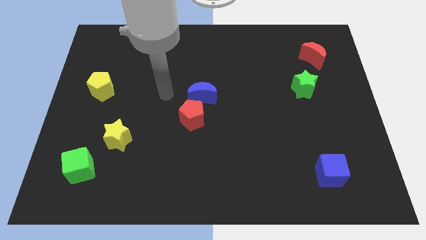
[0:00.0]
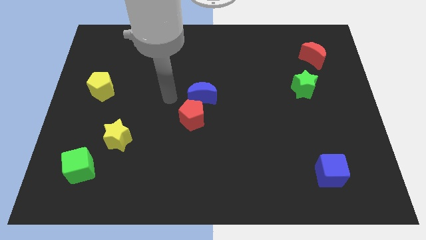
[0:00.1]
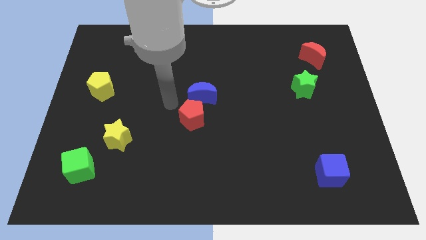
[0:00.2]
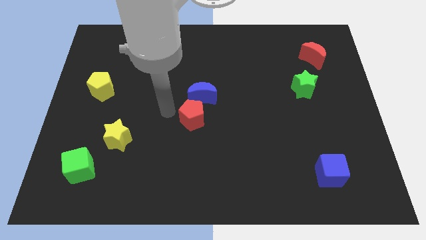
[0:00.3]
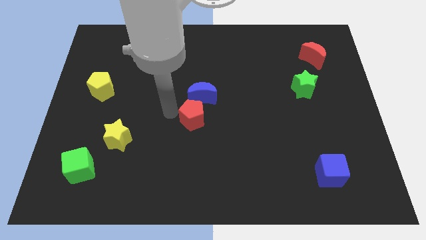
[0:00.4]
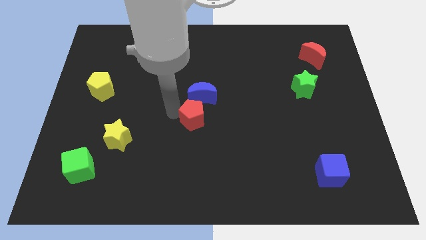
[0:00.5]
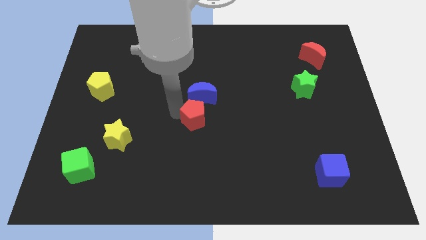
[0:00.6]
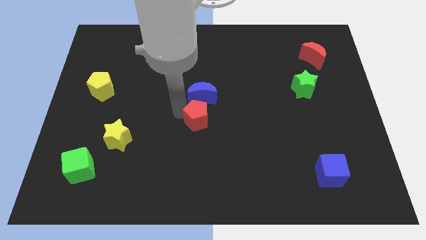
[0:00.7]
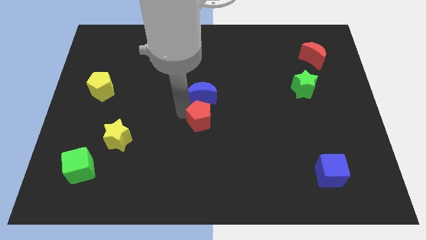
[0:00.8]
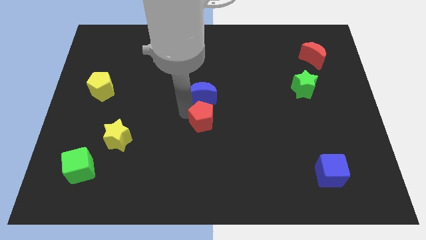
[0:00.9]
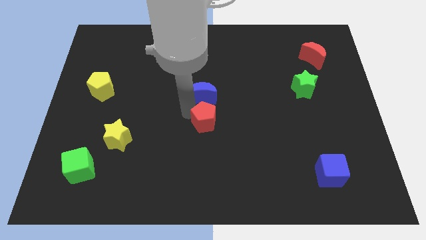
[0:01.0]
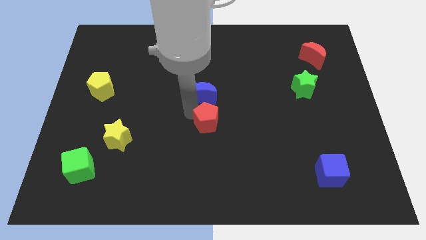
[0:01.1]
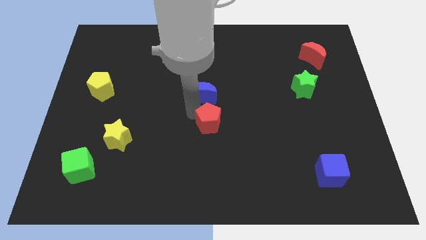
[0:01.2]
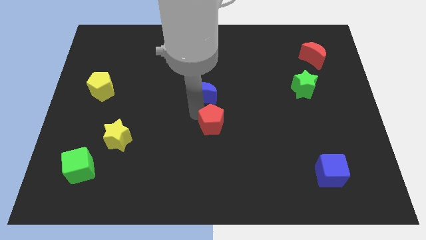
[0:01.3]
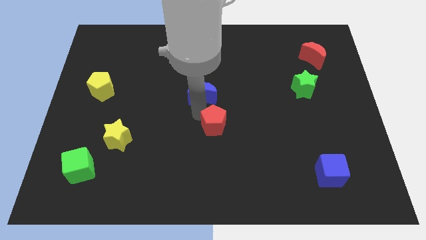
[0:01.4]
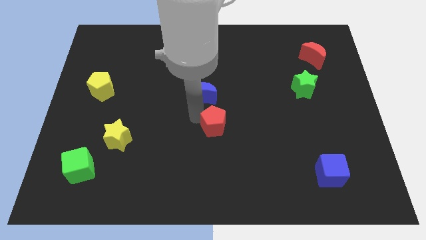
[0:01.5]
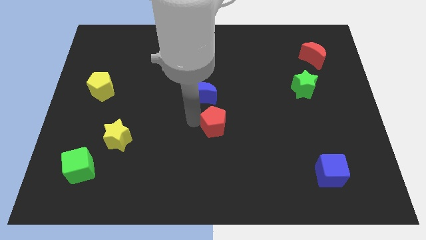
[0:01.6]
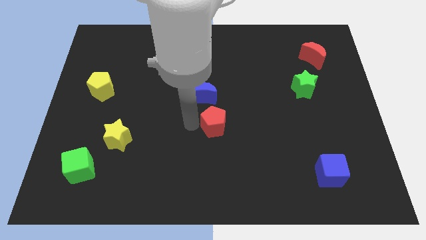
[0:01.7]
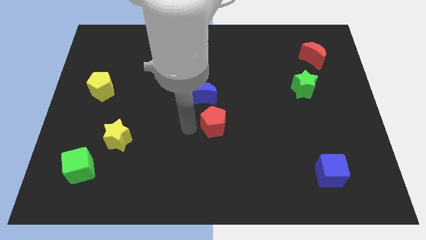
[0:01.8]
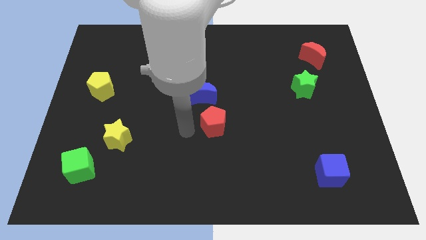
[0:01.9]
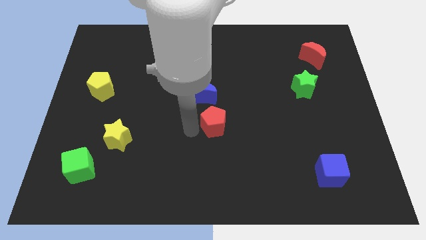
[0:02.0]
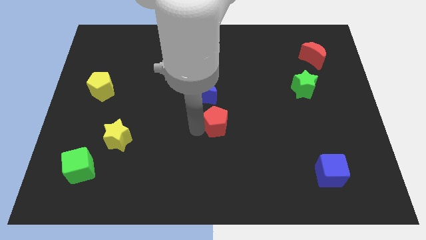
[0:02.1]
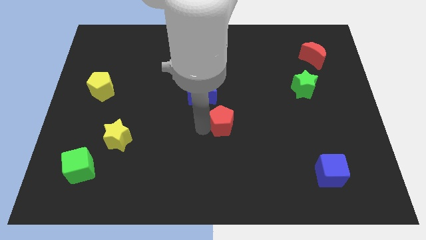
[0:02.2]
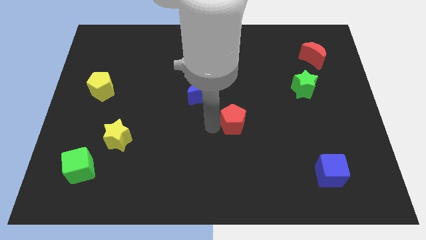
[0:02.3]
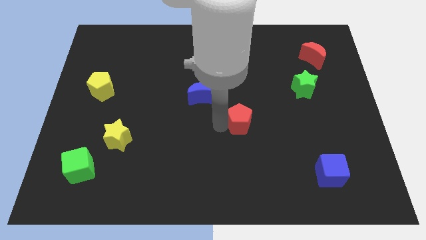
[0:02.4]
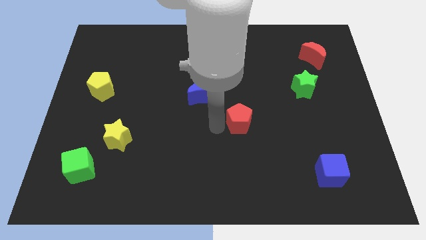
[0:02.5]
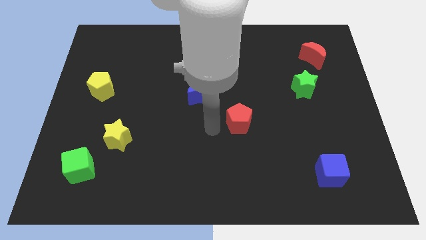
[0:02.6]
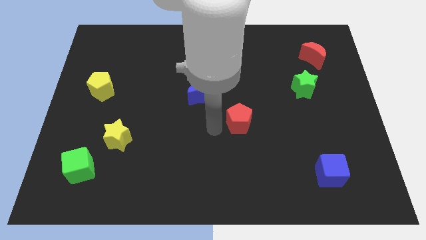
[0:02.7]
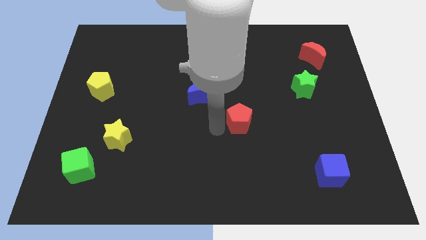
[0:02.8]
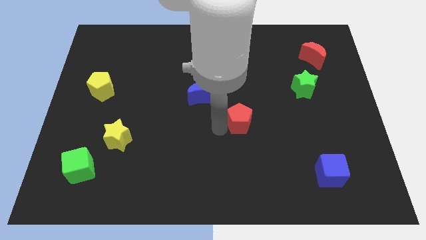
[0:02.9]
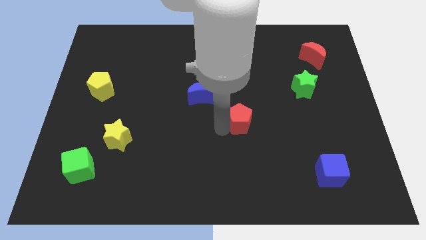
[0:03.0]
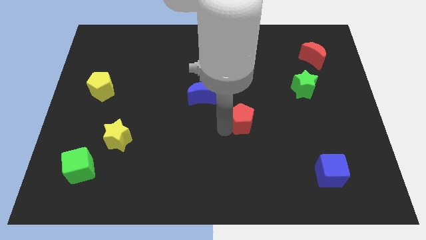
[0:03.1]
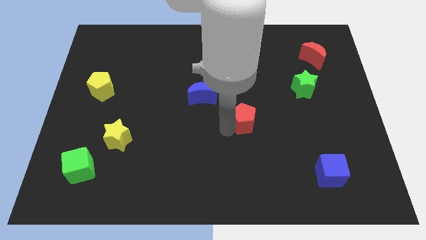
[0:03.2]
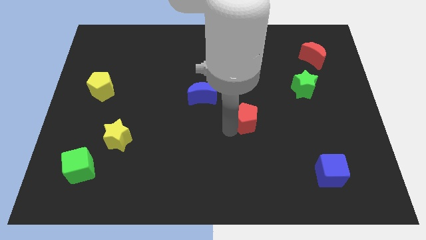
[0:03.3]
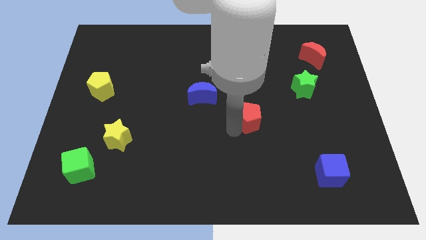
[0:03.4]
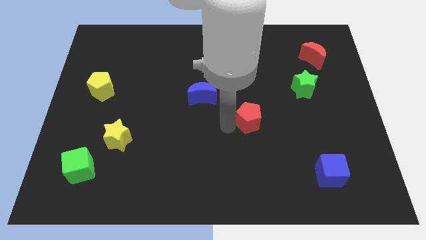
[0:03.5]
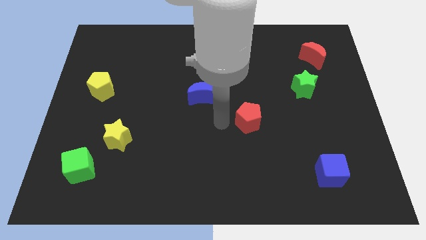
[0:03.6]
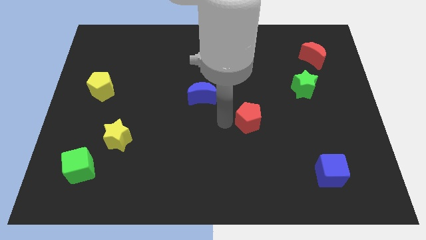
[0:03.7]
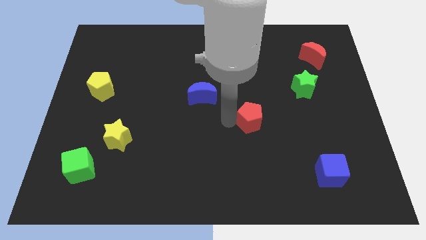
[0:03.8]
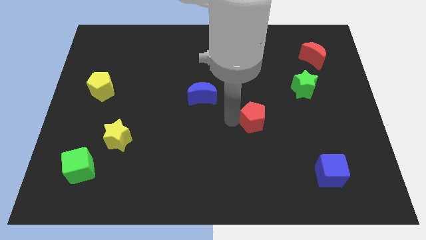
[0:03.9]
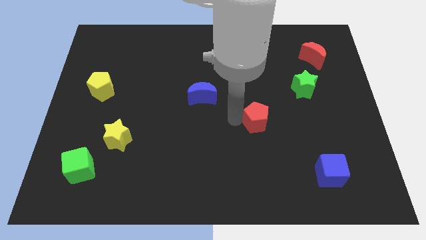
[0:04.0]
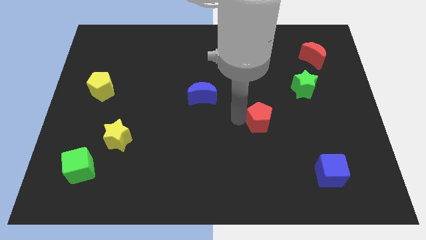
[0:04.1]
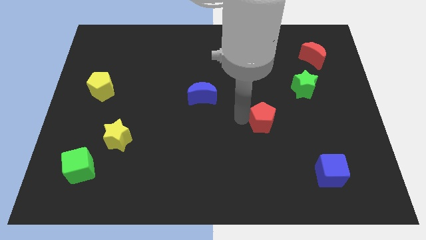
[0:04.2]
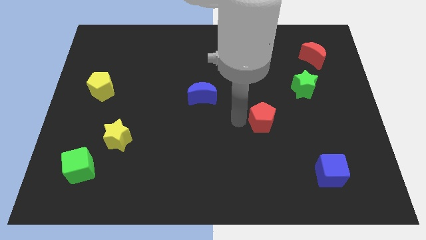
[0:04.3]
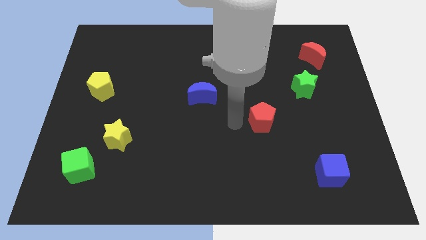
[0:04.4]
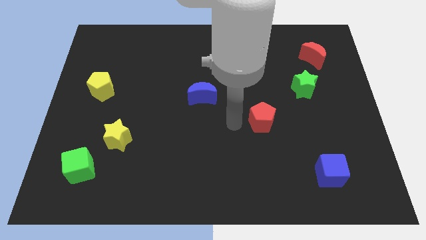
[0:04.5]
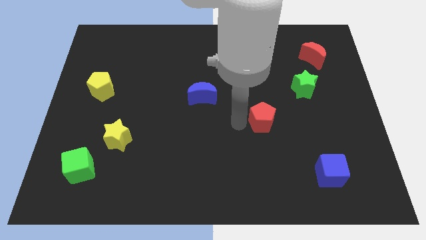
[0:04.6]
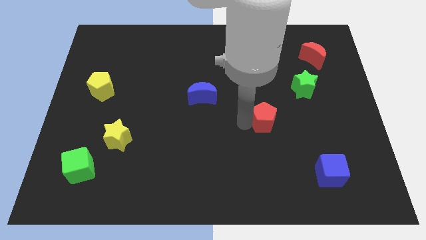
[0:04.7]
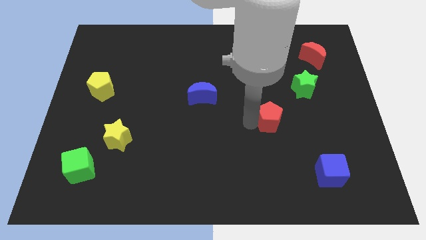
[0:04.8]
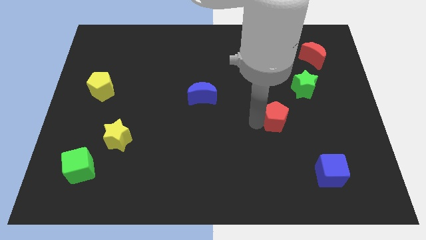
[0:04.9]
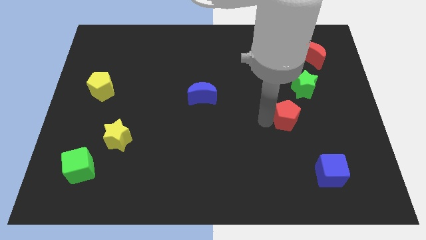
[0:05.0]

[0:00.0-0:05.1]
move the red pentagon to the right

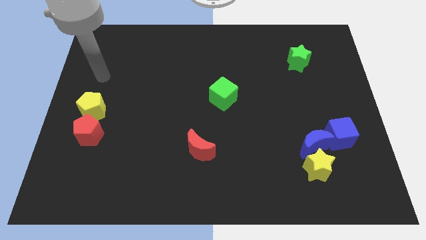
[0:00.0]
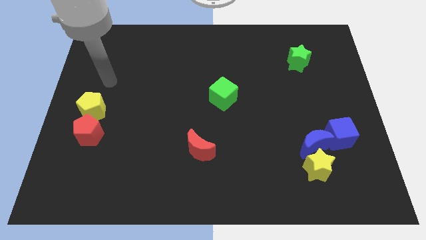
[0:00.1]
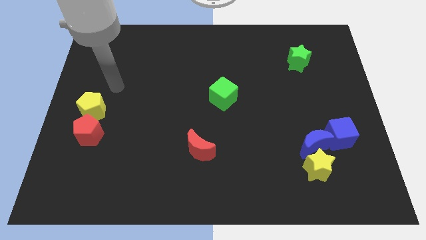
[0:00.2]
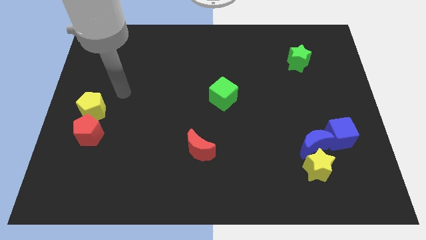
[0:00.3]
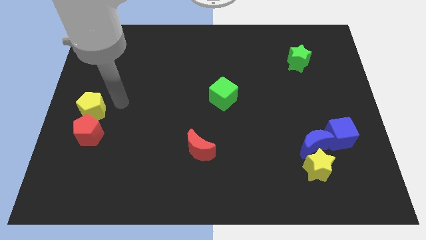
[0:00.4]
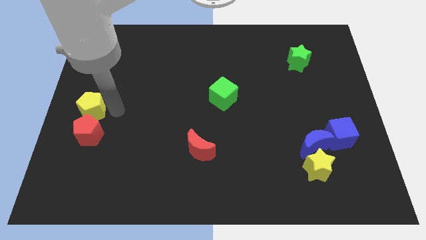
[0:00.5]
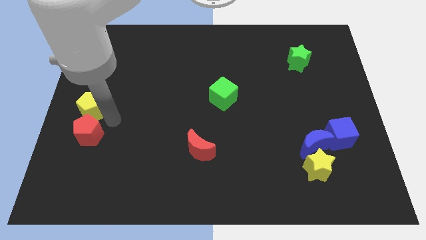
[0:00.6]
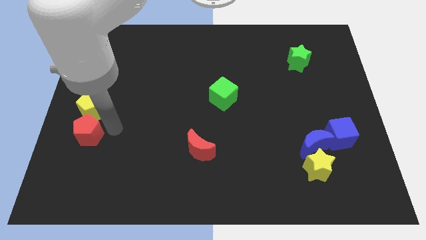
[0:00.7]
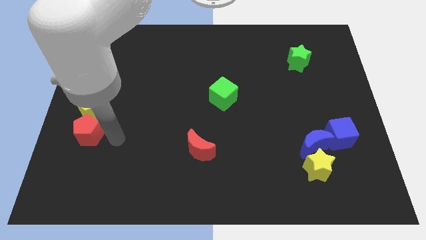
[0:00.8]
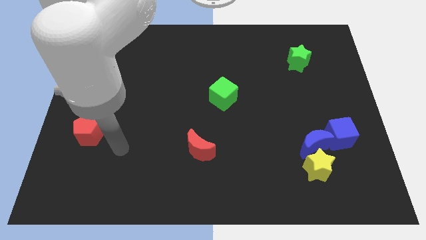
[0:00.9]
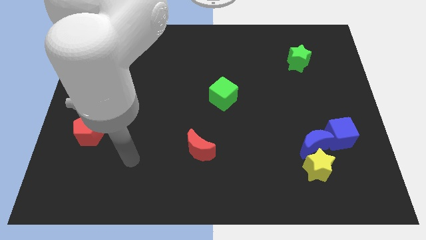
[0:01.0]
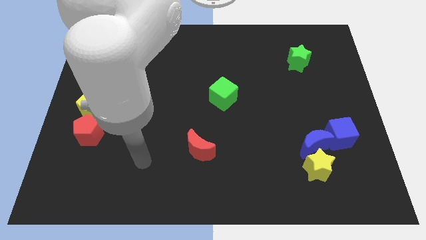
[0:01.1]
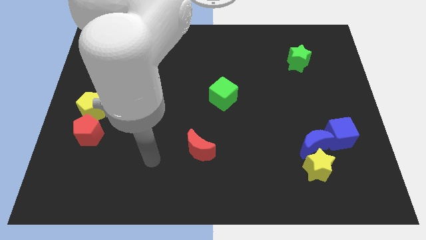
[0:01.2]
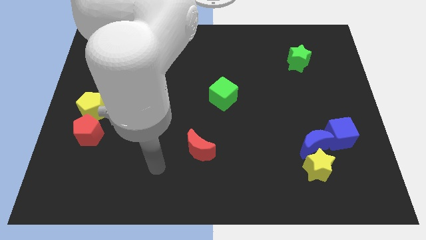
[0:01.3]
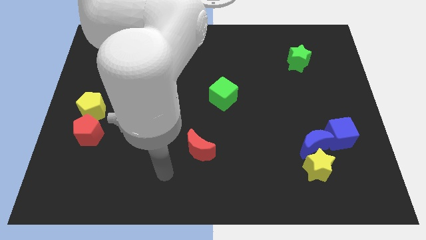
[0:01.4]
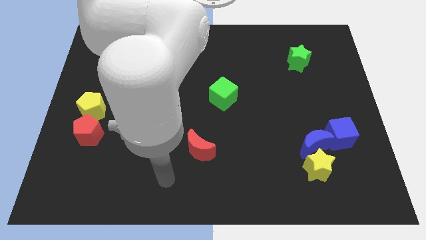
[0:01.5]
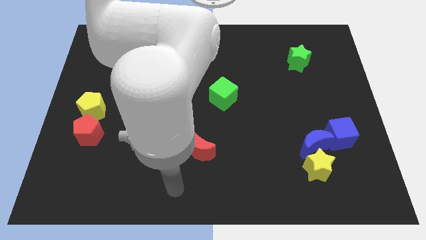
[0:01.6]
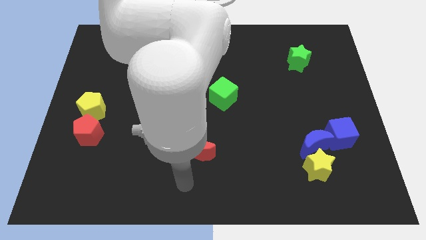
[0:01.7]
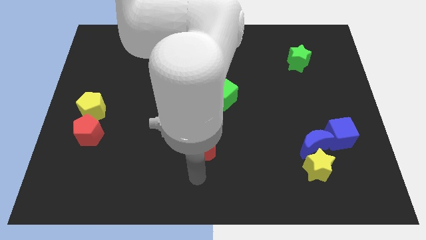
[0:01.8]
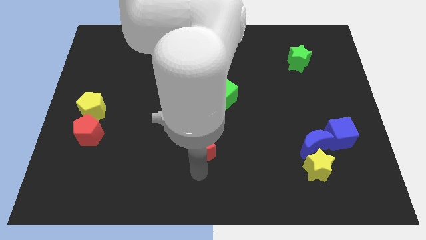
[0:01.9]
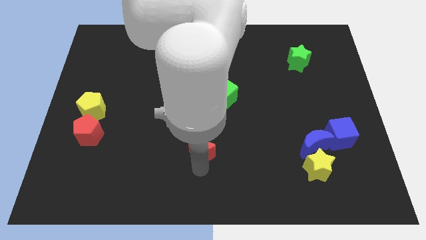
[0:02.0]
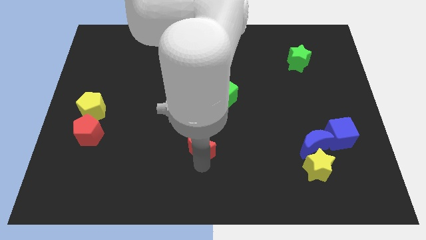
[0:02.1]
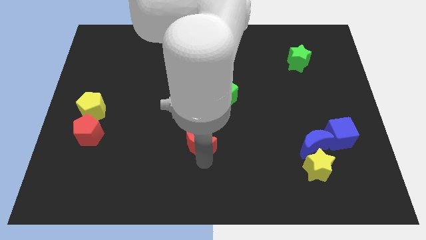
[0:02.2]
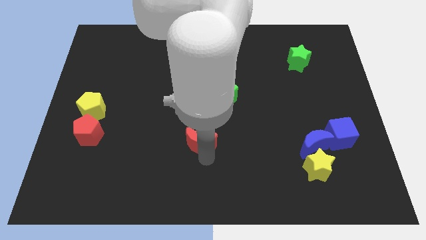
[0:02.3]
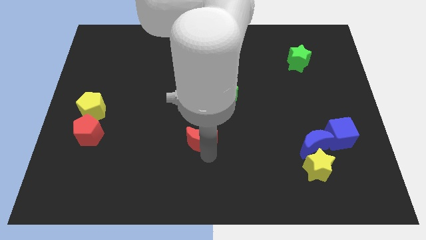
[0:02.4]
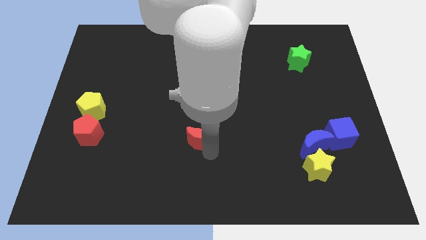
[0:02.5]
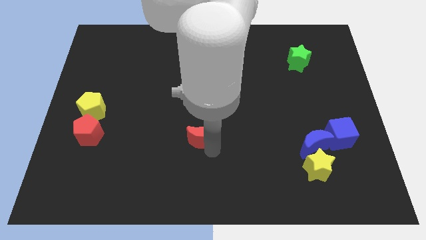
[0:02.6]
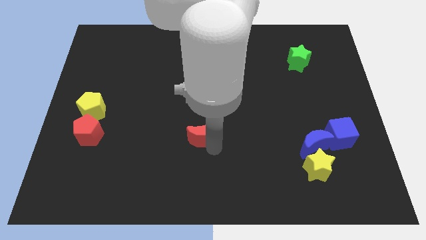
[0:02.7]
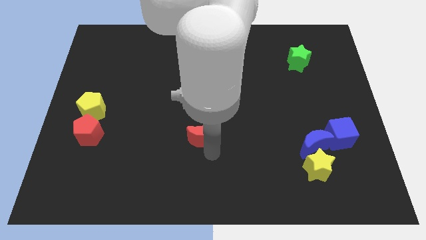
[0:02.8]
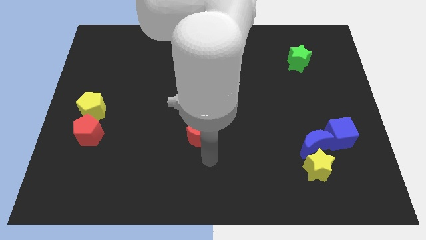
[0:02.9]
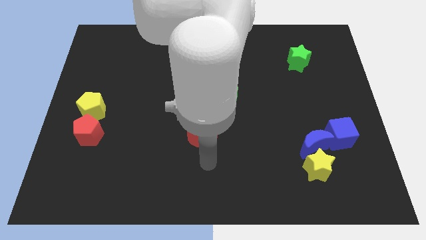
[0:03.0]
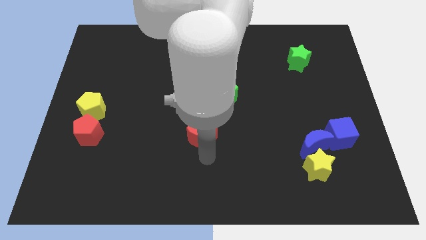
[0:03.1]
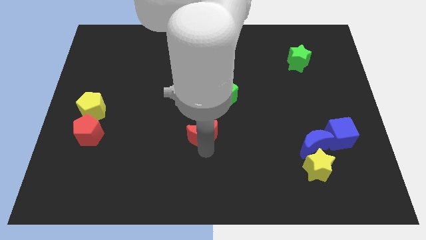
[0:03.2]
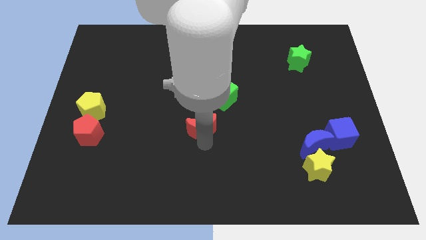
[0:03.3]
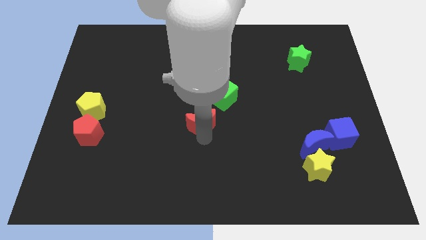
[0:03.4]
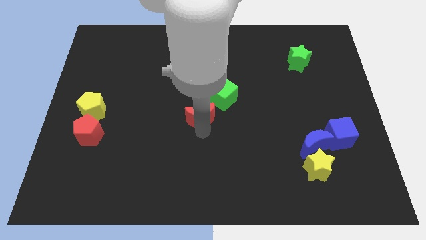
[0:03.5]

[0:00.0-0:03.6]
move the red moon somewhat upwards

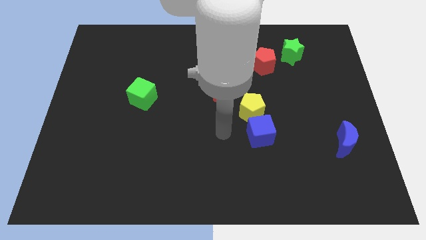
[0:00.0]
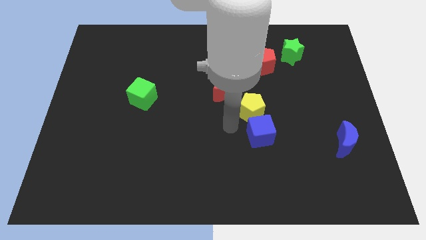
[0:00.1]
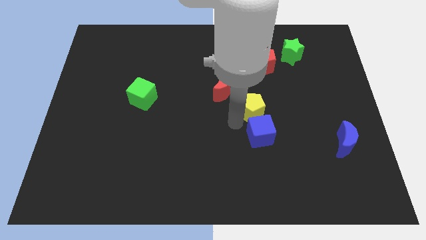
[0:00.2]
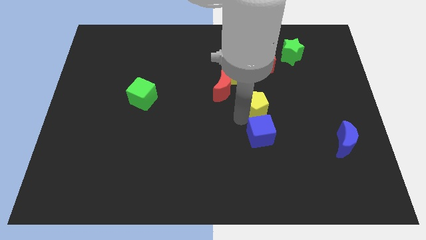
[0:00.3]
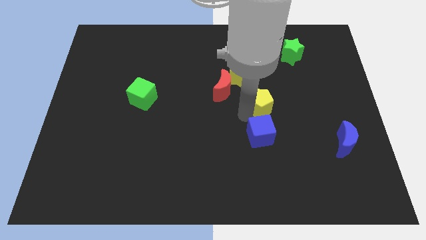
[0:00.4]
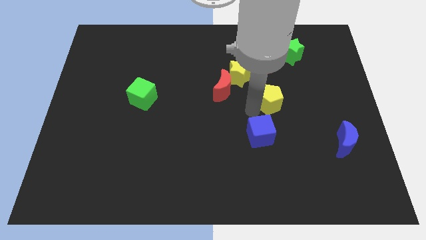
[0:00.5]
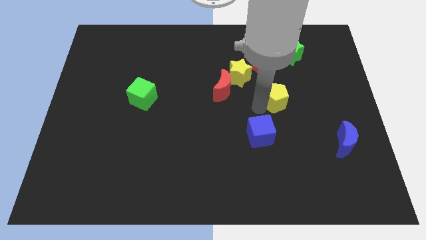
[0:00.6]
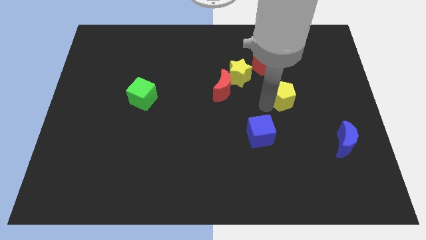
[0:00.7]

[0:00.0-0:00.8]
slightly move the yellow pentagon upwards and right diagonally
